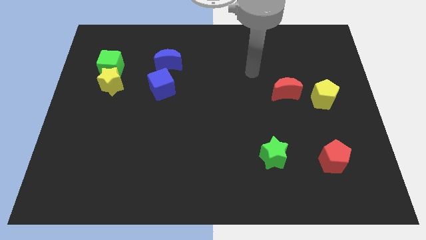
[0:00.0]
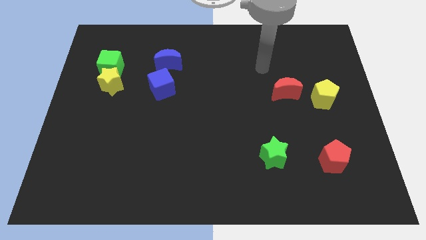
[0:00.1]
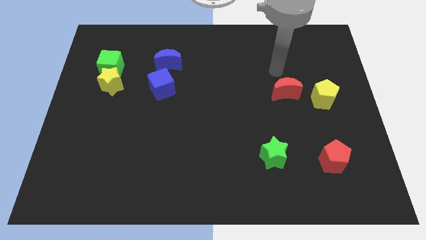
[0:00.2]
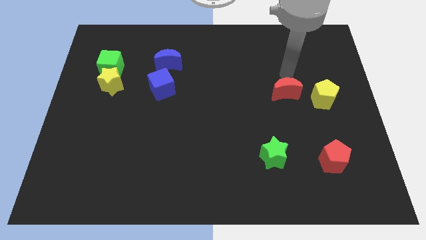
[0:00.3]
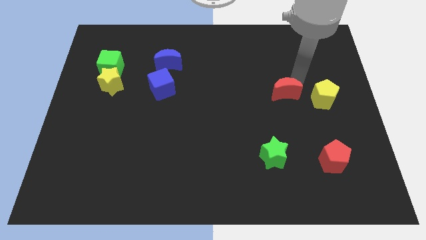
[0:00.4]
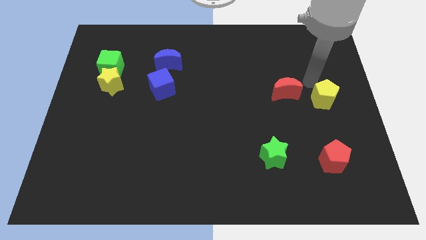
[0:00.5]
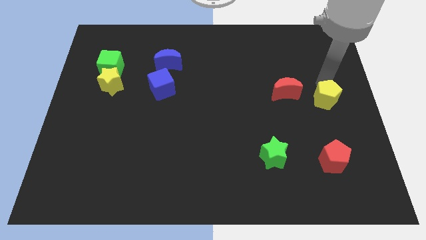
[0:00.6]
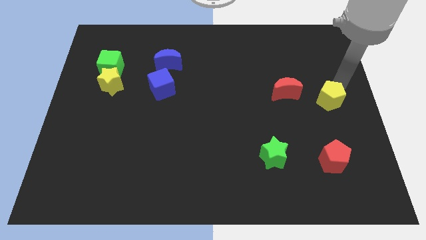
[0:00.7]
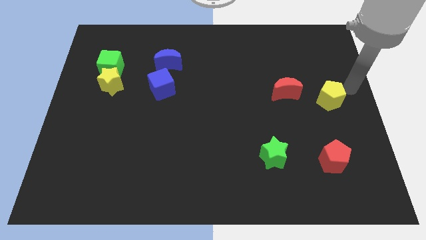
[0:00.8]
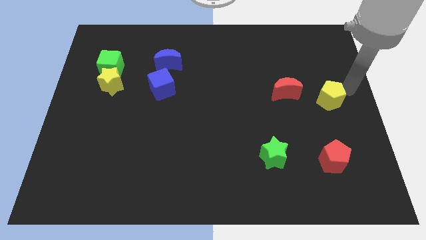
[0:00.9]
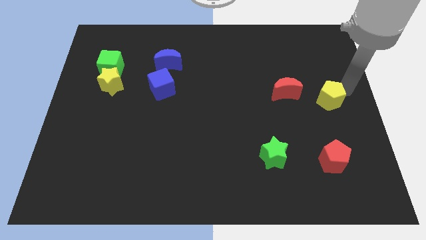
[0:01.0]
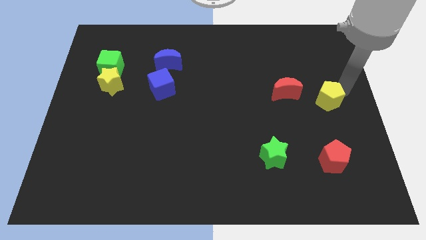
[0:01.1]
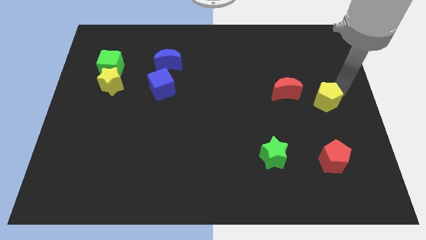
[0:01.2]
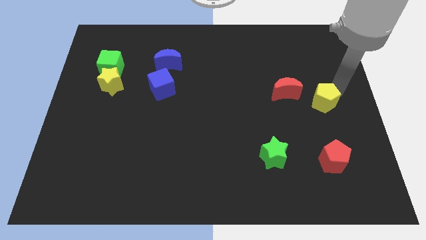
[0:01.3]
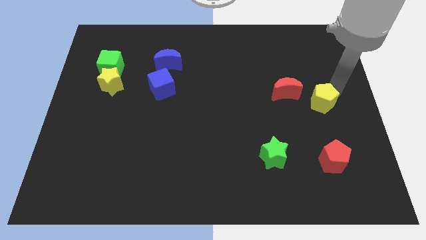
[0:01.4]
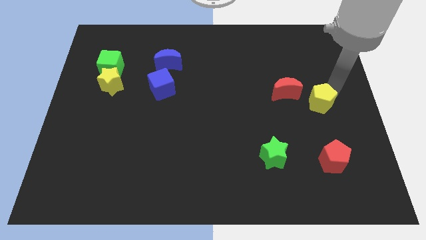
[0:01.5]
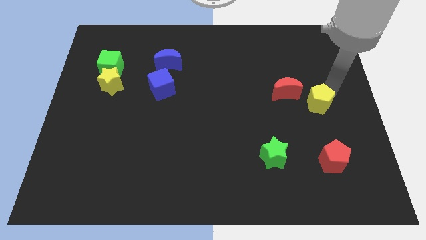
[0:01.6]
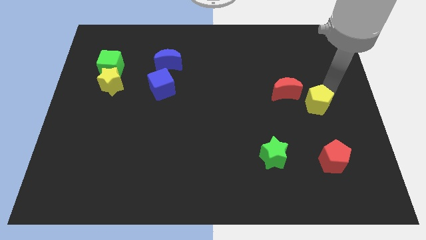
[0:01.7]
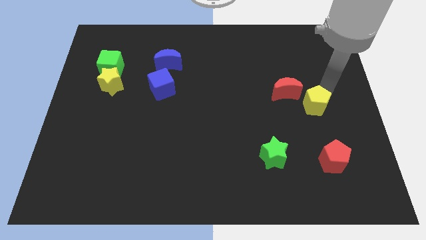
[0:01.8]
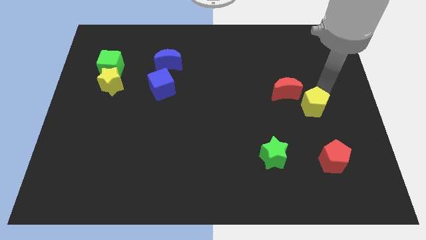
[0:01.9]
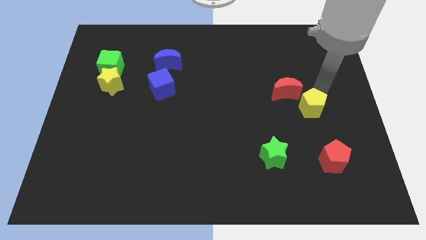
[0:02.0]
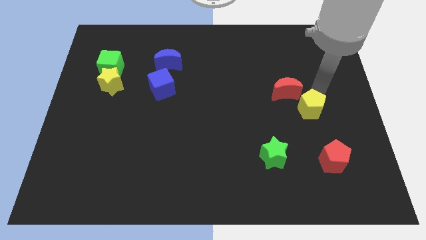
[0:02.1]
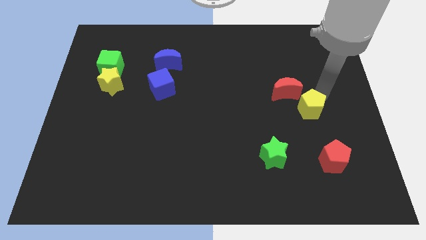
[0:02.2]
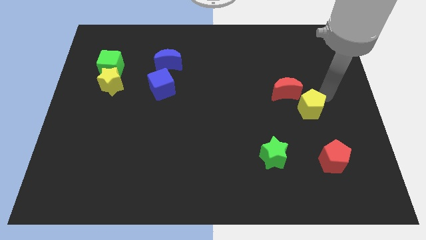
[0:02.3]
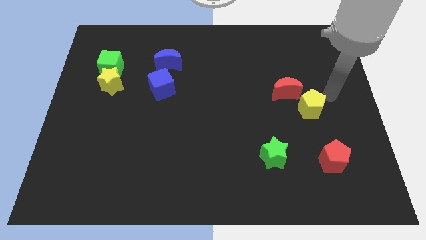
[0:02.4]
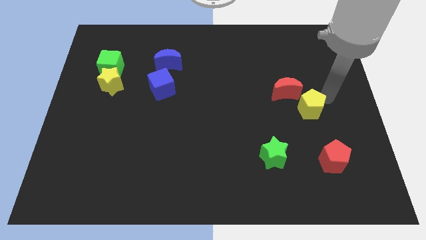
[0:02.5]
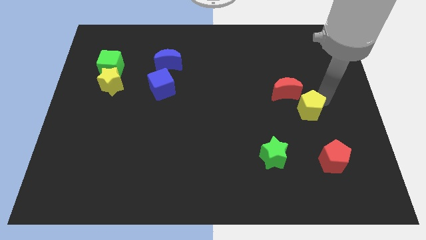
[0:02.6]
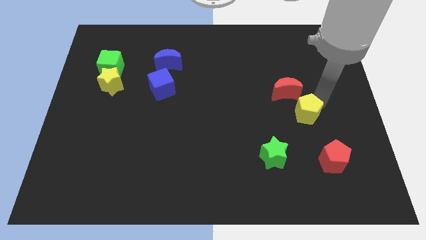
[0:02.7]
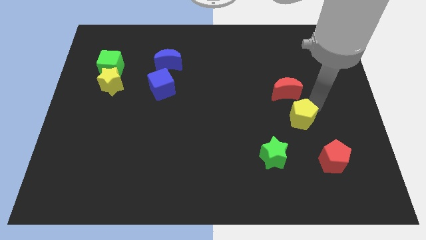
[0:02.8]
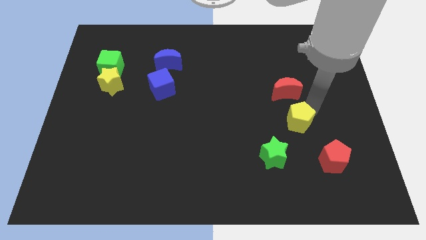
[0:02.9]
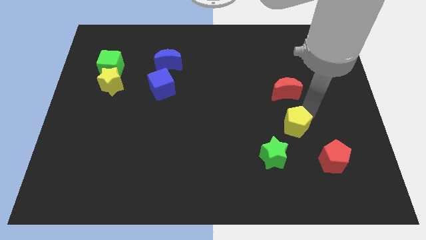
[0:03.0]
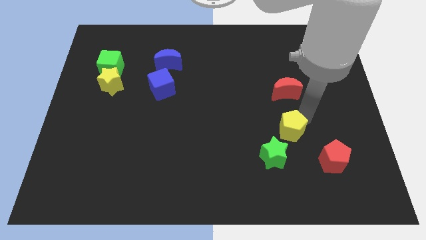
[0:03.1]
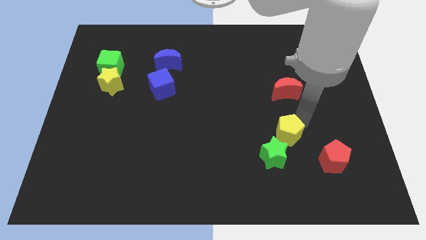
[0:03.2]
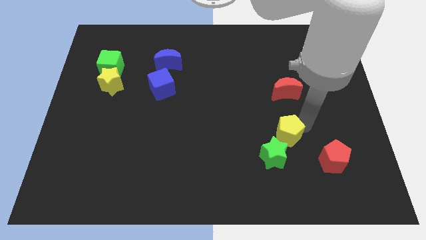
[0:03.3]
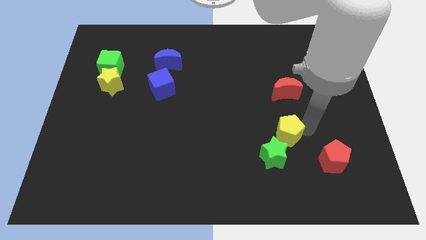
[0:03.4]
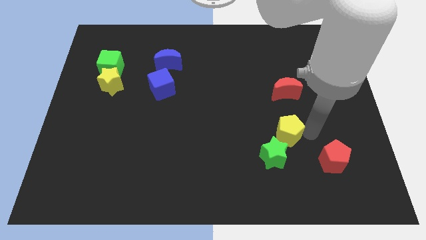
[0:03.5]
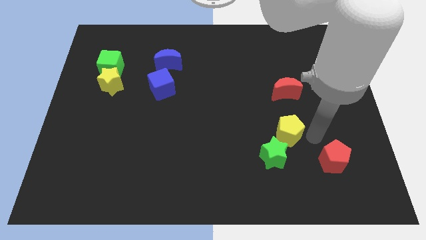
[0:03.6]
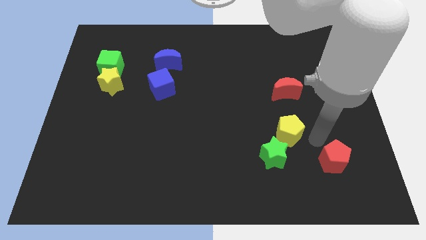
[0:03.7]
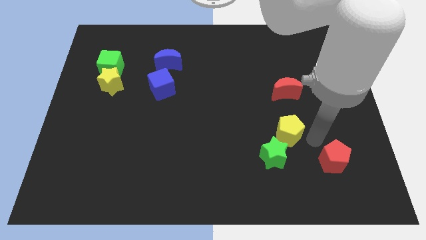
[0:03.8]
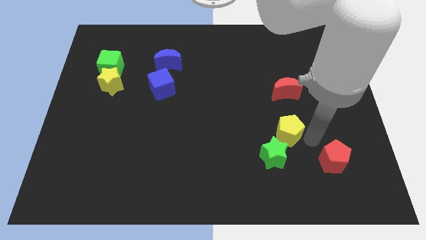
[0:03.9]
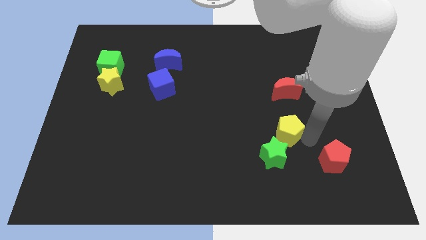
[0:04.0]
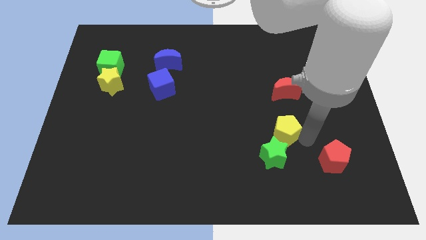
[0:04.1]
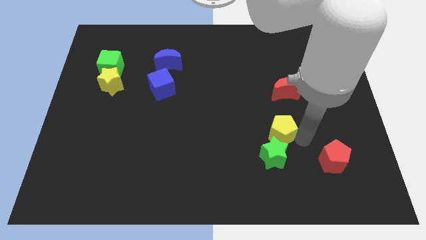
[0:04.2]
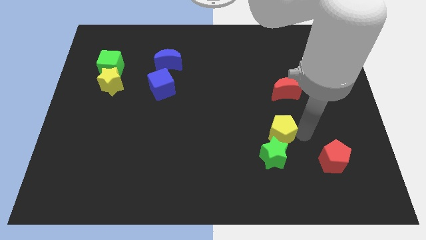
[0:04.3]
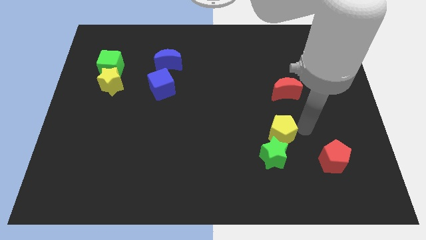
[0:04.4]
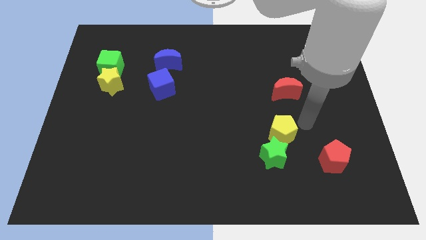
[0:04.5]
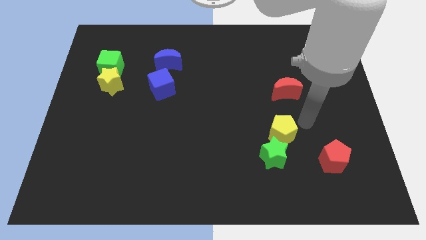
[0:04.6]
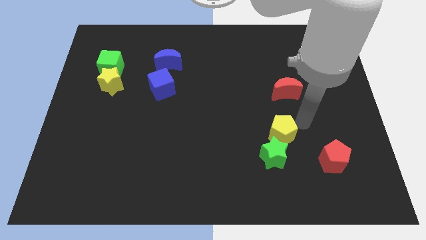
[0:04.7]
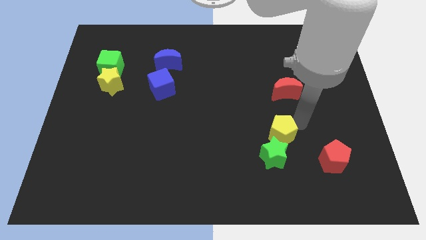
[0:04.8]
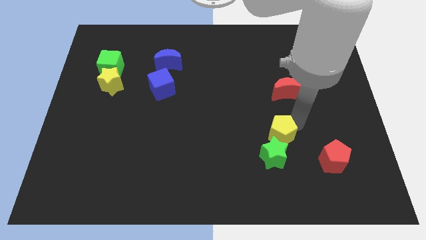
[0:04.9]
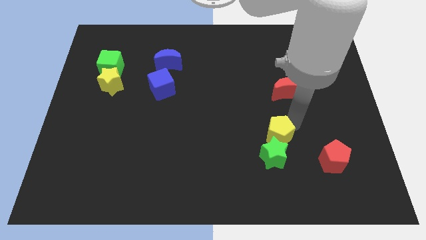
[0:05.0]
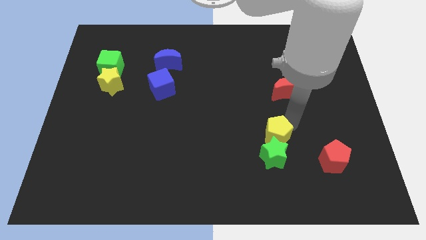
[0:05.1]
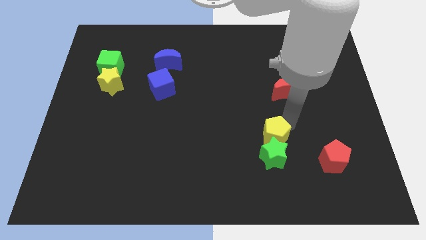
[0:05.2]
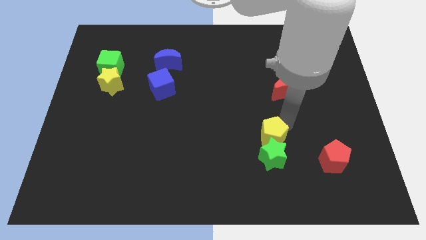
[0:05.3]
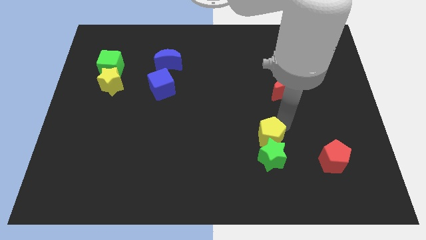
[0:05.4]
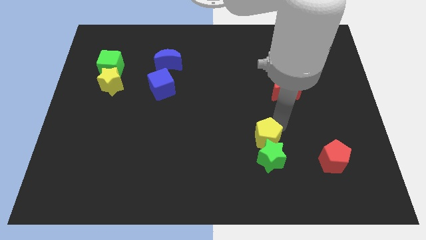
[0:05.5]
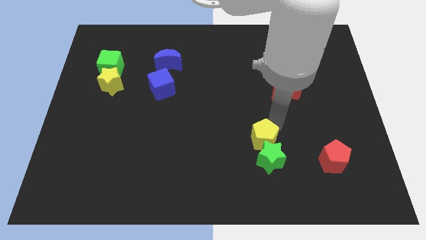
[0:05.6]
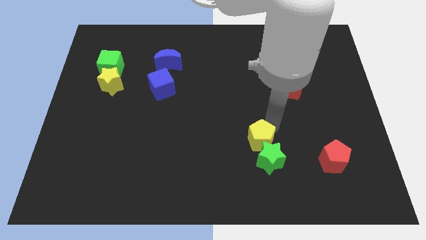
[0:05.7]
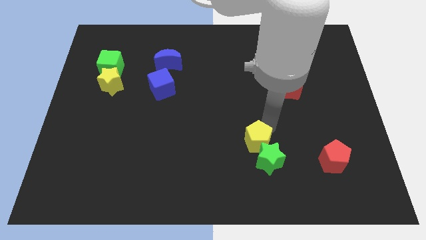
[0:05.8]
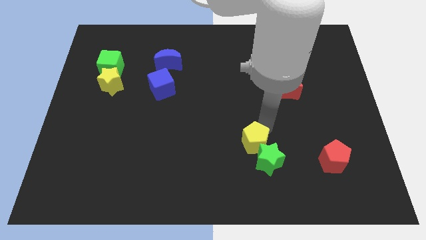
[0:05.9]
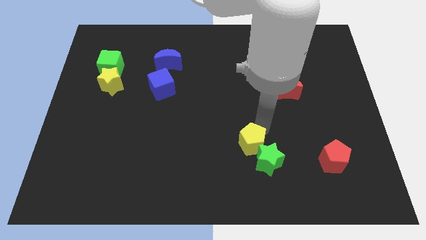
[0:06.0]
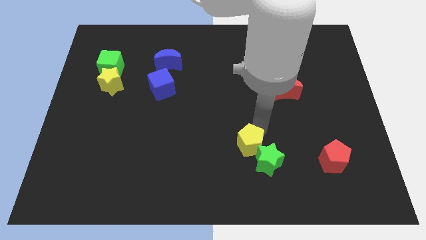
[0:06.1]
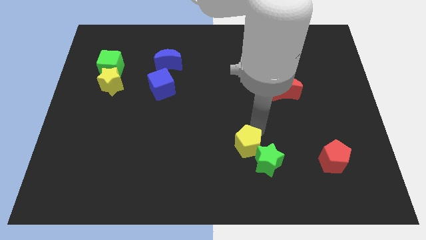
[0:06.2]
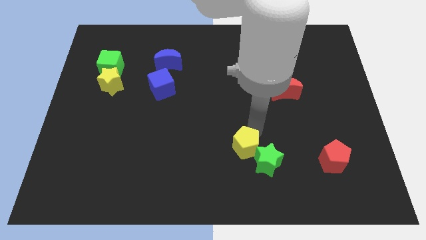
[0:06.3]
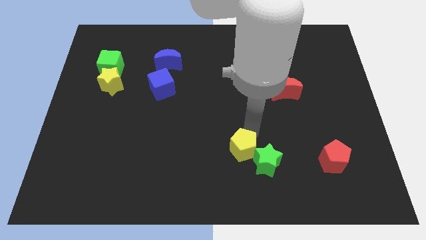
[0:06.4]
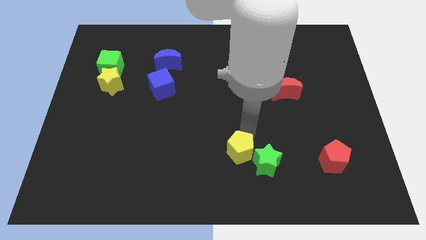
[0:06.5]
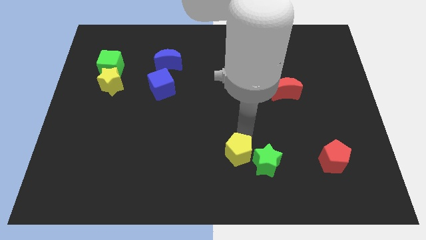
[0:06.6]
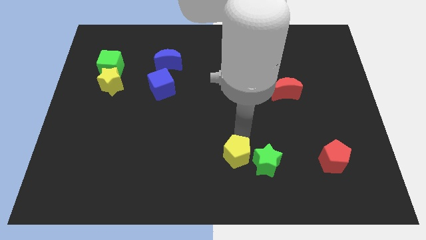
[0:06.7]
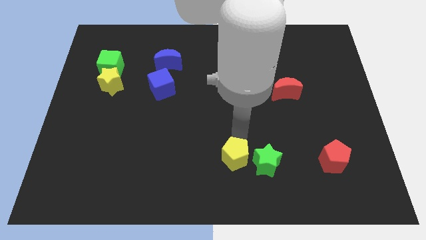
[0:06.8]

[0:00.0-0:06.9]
move the yellow pentagon to the bottom side

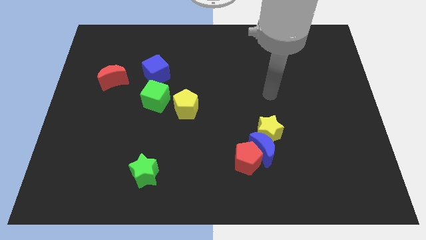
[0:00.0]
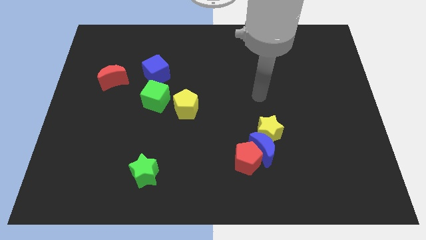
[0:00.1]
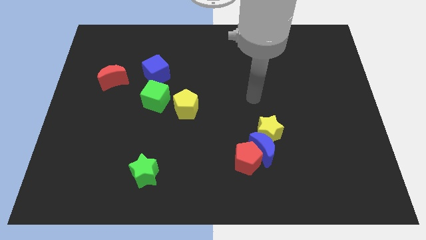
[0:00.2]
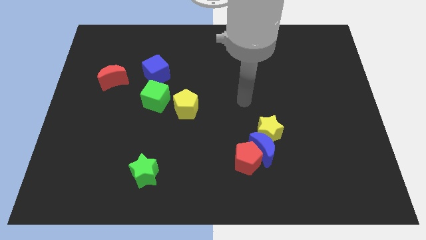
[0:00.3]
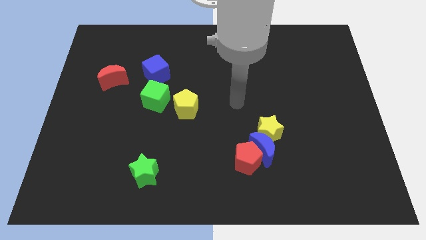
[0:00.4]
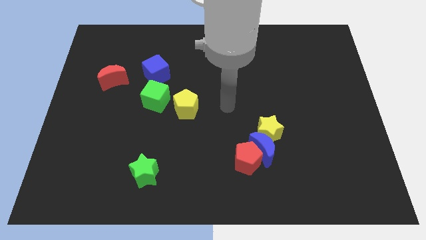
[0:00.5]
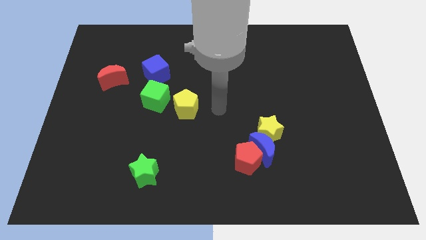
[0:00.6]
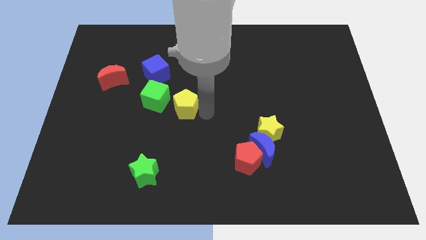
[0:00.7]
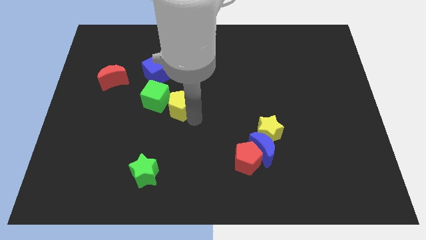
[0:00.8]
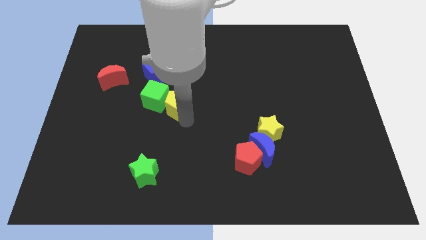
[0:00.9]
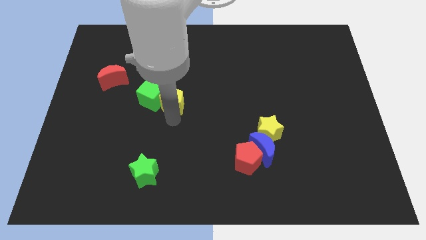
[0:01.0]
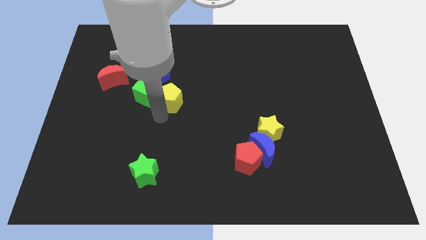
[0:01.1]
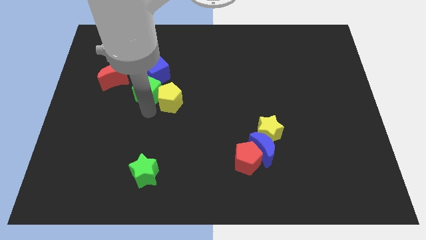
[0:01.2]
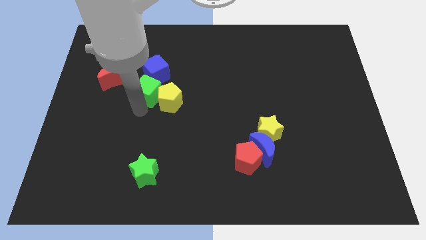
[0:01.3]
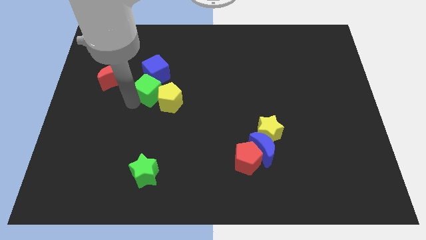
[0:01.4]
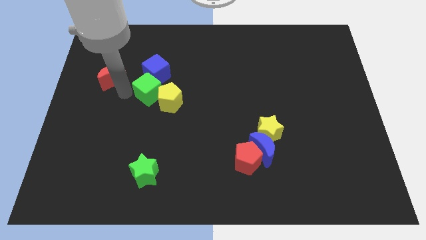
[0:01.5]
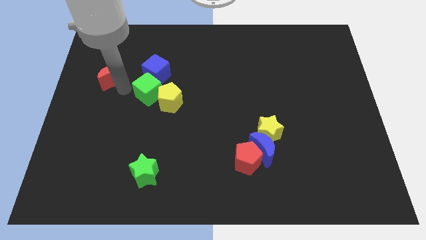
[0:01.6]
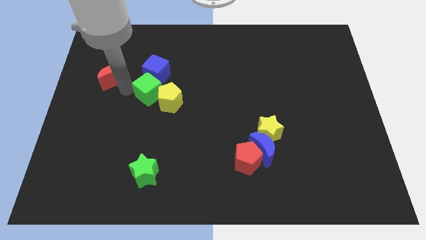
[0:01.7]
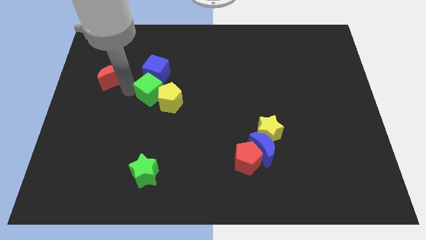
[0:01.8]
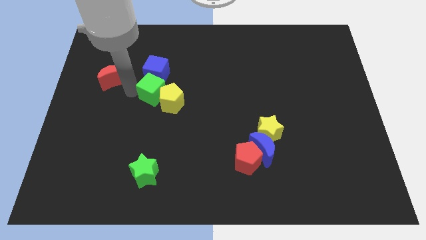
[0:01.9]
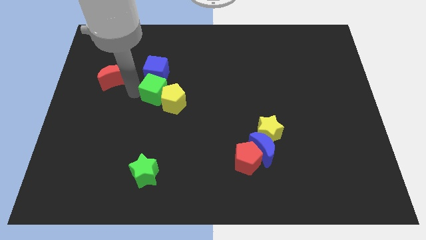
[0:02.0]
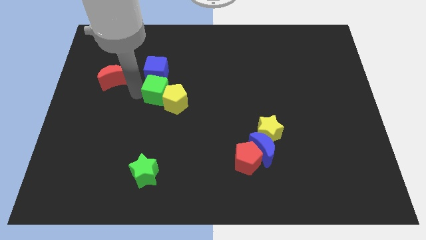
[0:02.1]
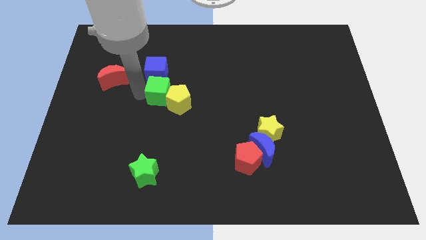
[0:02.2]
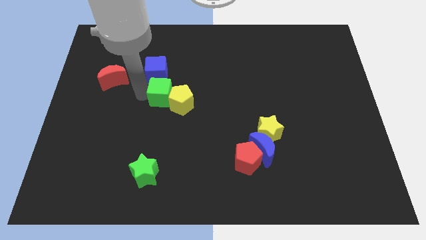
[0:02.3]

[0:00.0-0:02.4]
push the green cube to the middle
